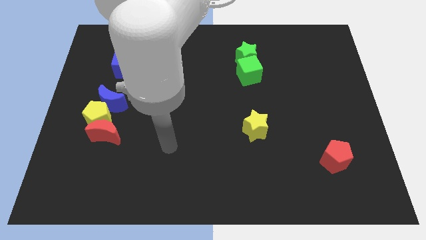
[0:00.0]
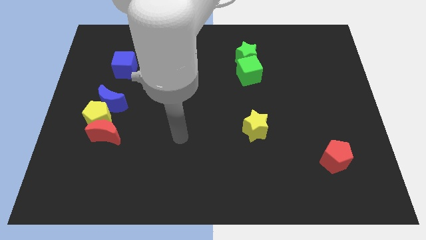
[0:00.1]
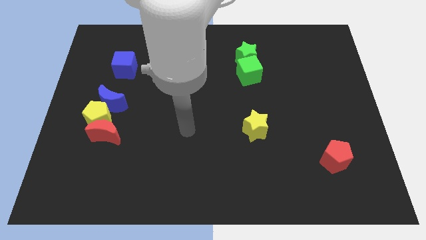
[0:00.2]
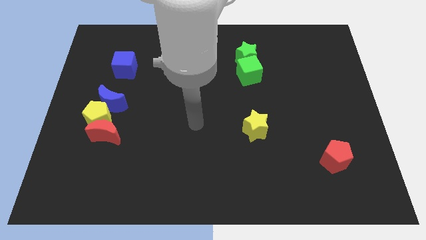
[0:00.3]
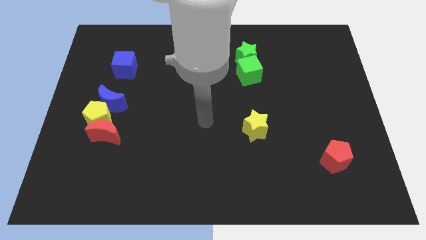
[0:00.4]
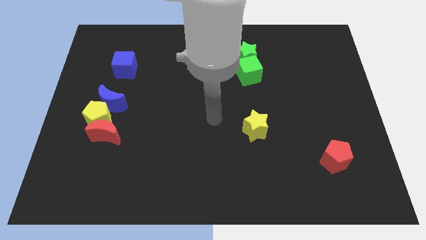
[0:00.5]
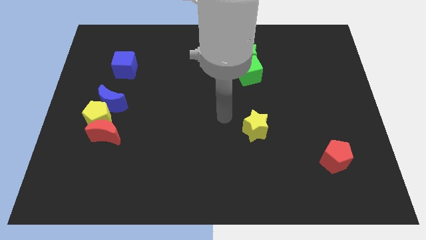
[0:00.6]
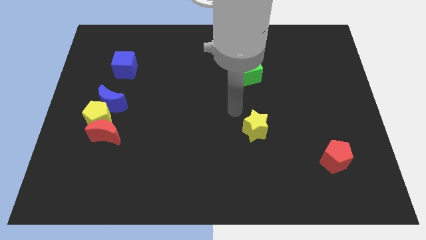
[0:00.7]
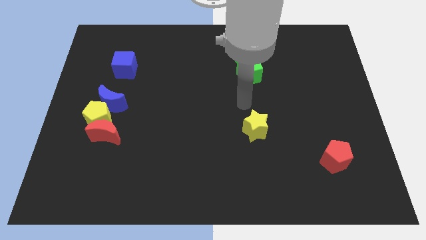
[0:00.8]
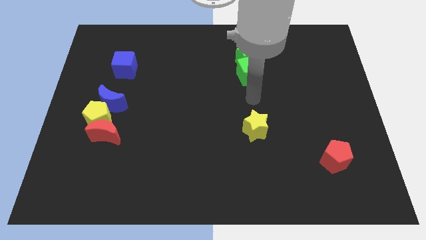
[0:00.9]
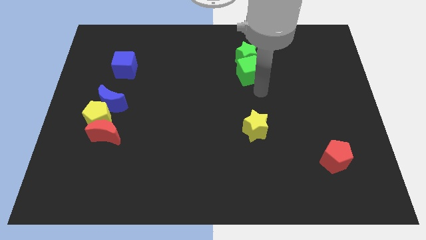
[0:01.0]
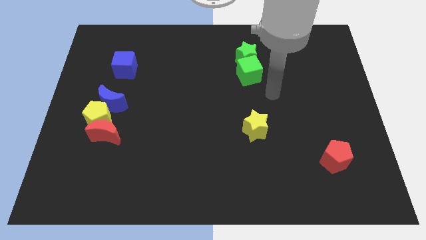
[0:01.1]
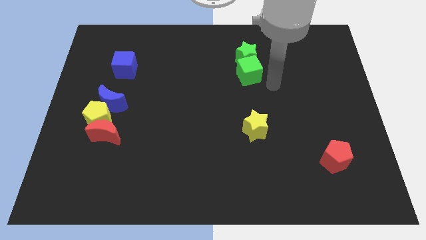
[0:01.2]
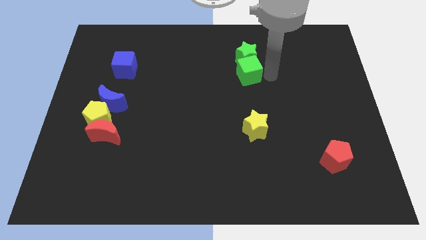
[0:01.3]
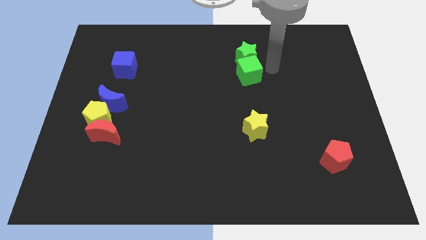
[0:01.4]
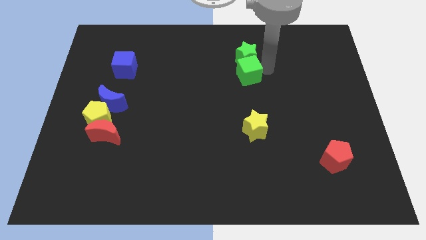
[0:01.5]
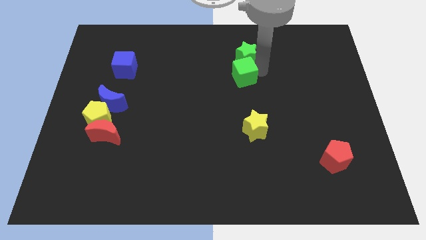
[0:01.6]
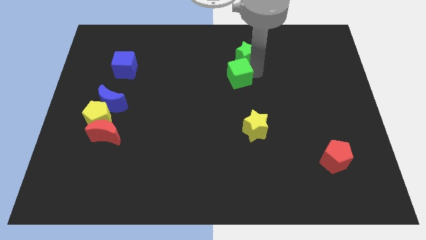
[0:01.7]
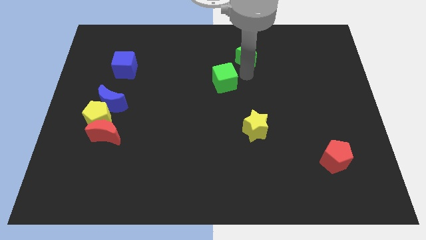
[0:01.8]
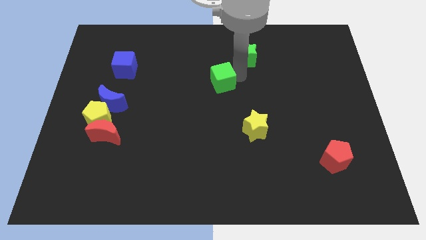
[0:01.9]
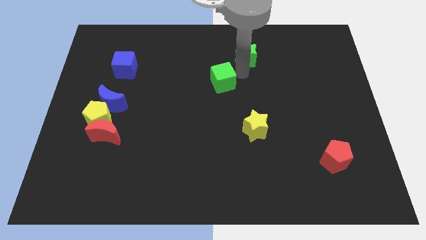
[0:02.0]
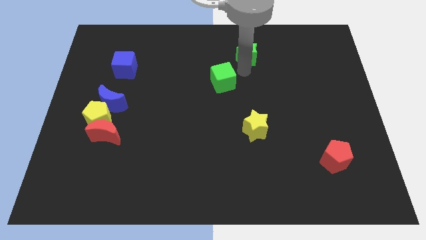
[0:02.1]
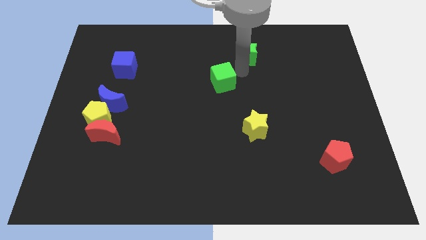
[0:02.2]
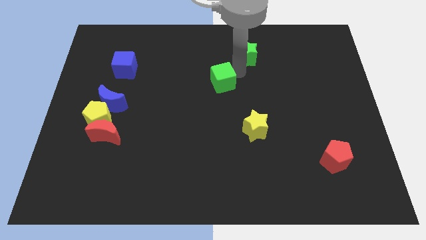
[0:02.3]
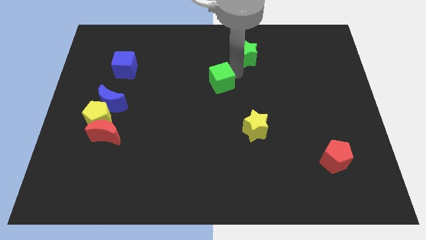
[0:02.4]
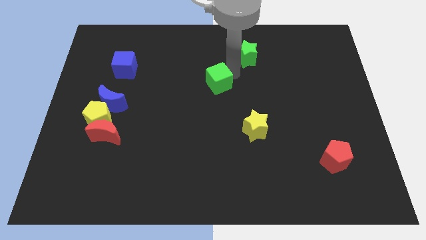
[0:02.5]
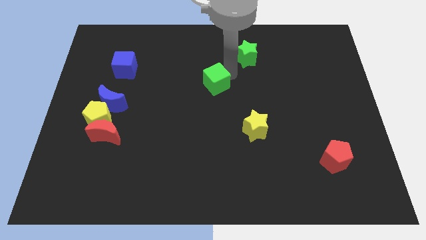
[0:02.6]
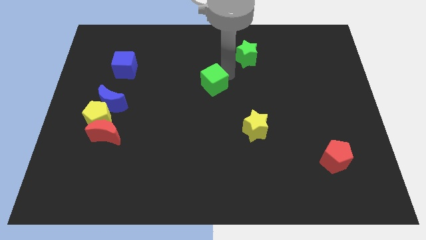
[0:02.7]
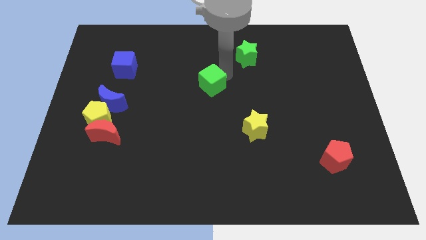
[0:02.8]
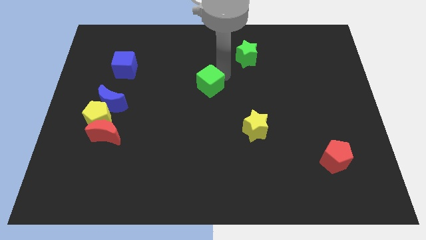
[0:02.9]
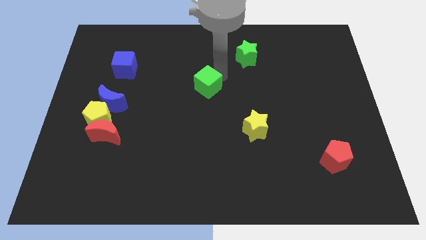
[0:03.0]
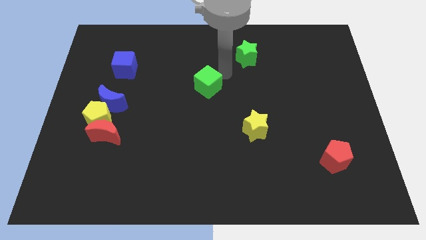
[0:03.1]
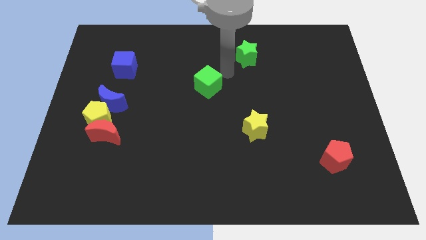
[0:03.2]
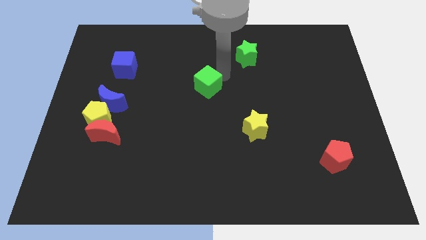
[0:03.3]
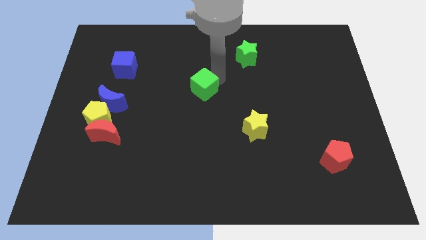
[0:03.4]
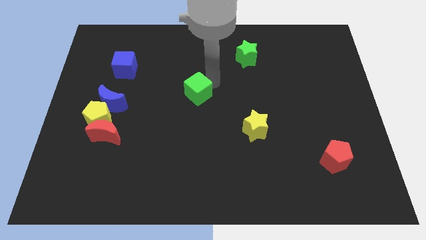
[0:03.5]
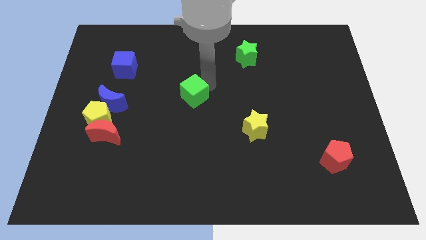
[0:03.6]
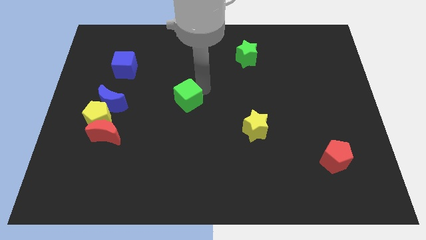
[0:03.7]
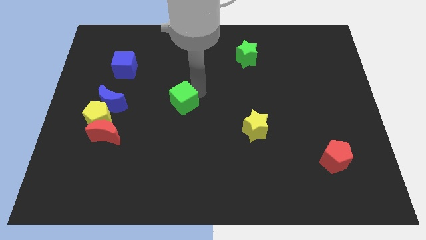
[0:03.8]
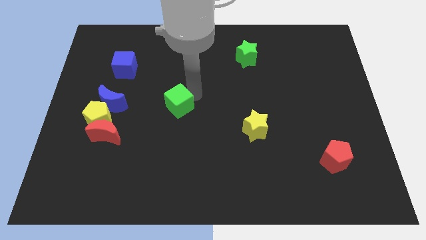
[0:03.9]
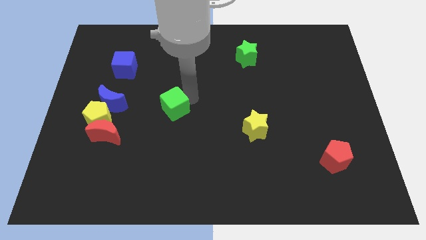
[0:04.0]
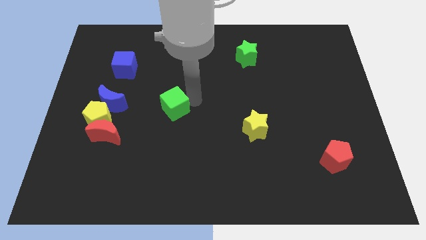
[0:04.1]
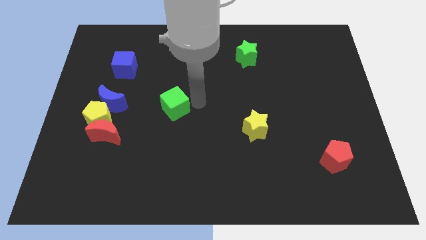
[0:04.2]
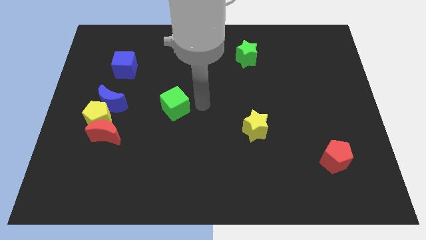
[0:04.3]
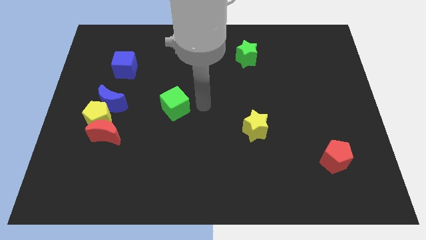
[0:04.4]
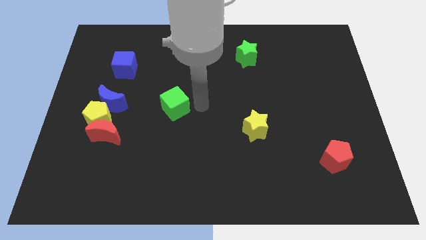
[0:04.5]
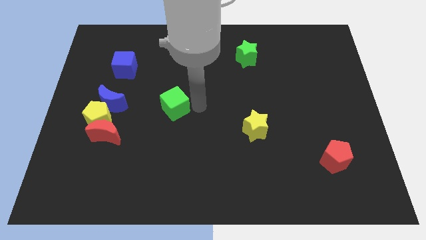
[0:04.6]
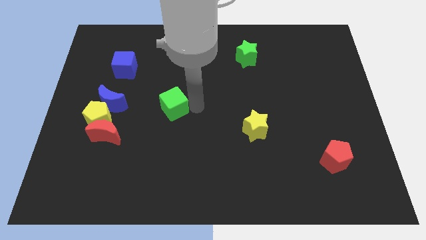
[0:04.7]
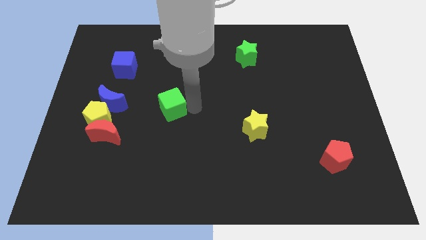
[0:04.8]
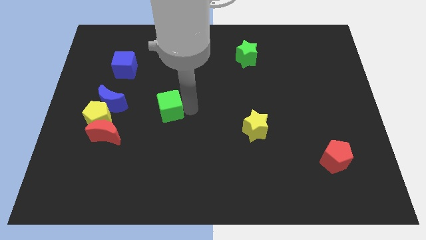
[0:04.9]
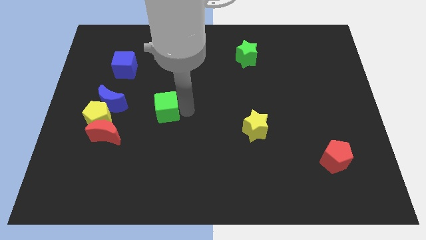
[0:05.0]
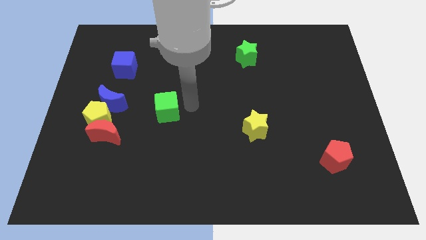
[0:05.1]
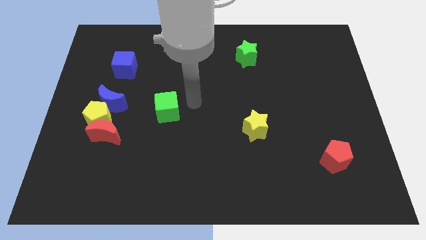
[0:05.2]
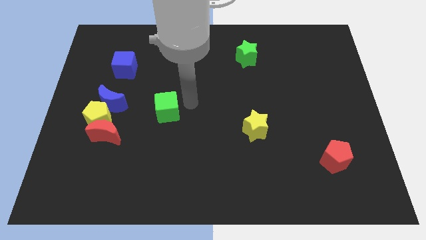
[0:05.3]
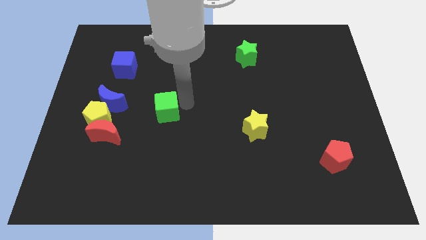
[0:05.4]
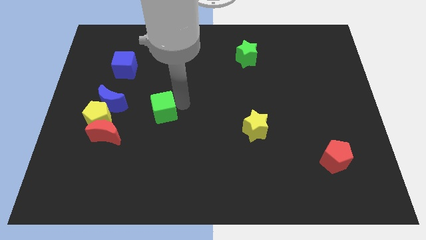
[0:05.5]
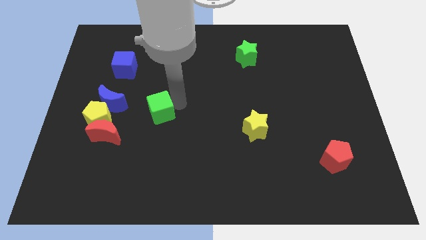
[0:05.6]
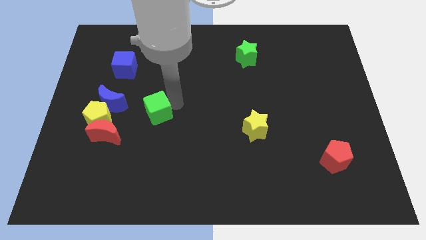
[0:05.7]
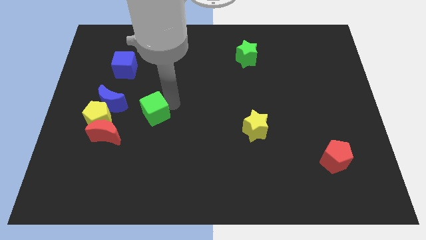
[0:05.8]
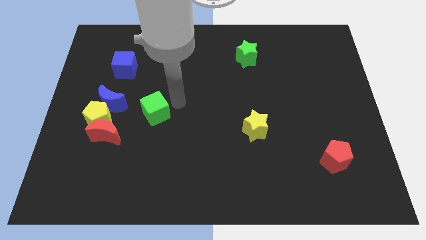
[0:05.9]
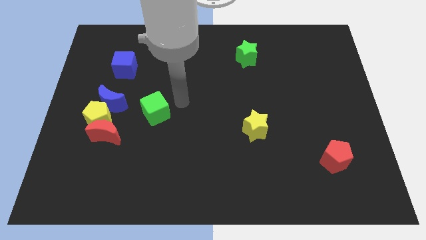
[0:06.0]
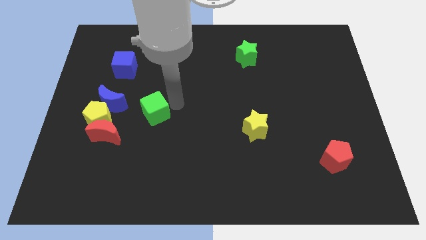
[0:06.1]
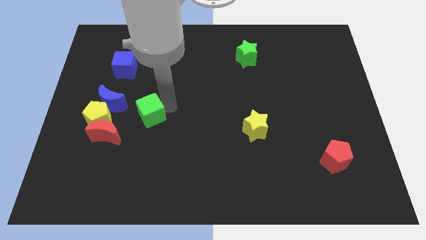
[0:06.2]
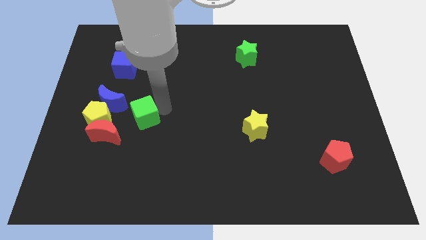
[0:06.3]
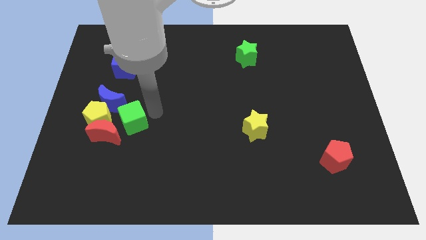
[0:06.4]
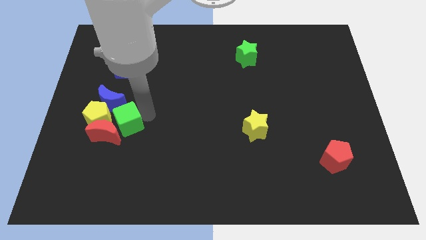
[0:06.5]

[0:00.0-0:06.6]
move the green cube to the red moon

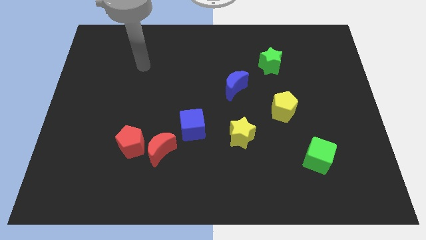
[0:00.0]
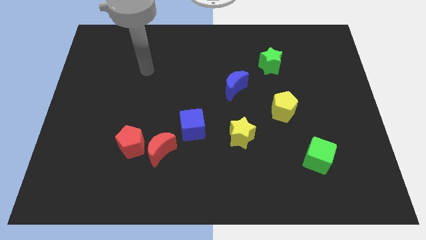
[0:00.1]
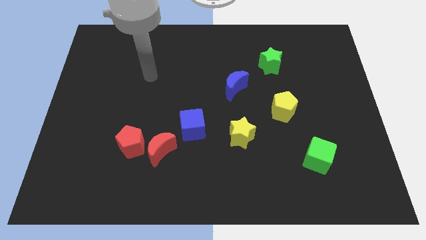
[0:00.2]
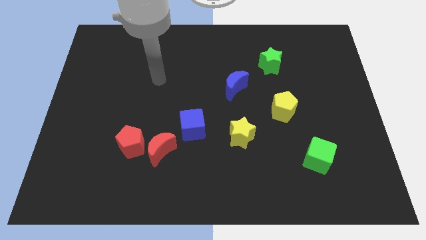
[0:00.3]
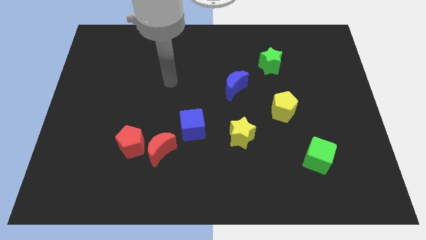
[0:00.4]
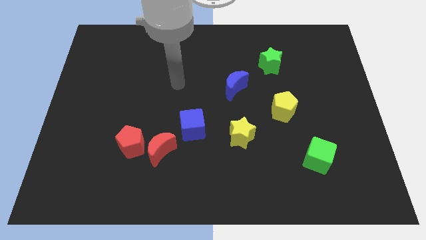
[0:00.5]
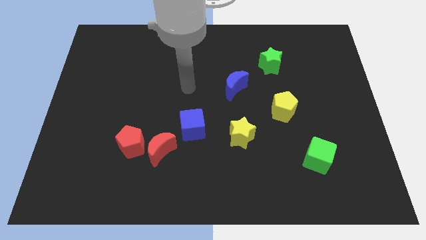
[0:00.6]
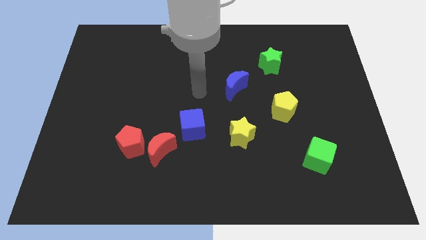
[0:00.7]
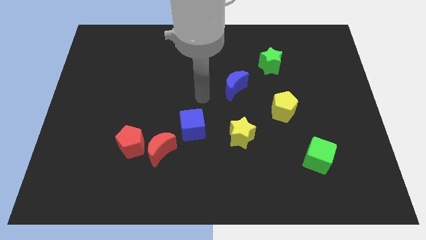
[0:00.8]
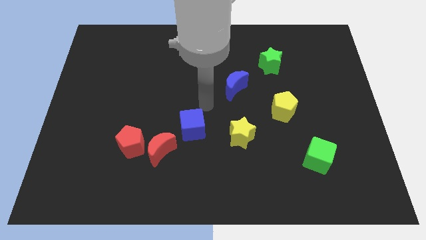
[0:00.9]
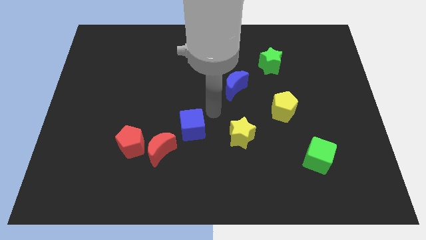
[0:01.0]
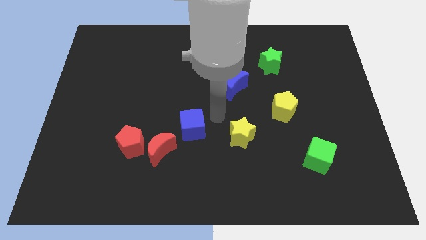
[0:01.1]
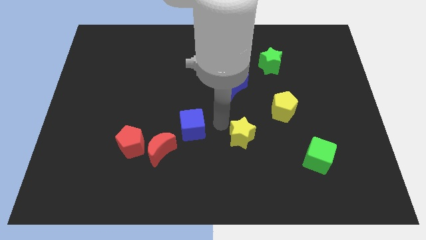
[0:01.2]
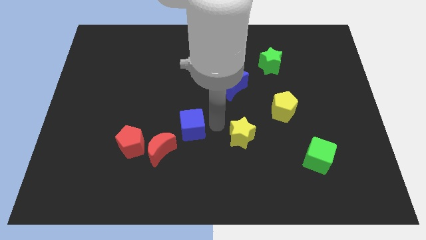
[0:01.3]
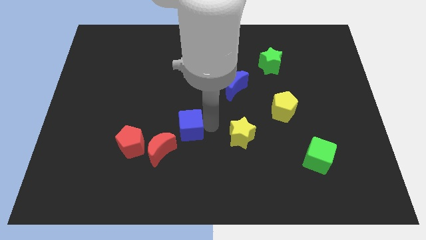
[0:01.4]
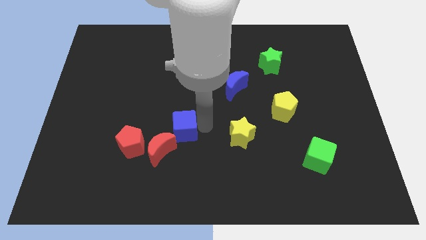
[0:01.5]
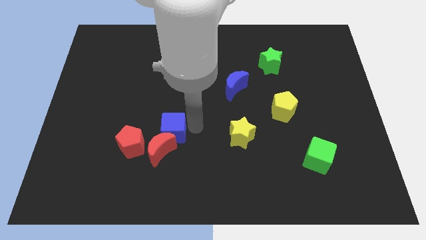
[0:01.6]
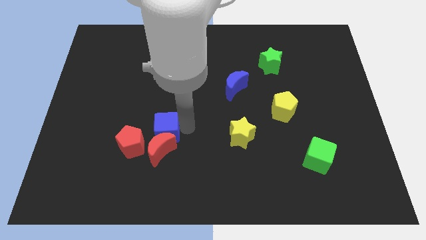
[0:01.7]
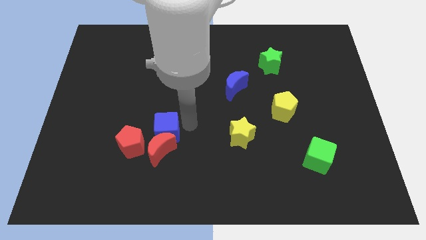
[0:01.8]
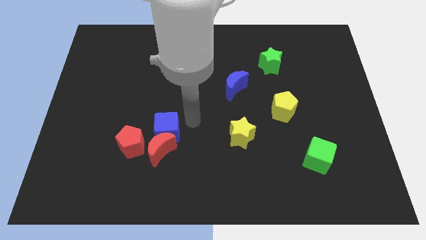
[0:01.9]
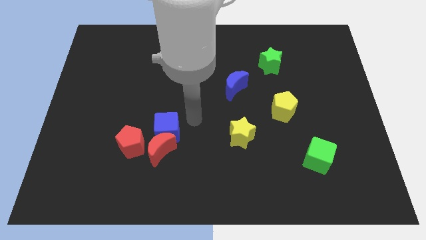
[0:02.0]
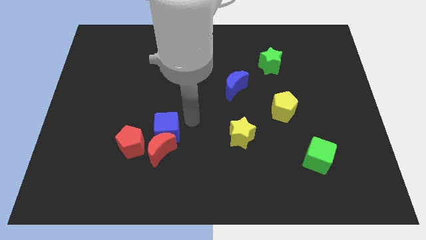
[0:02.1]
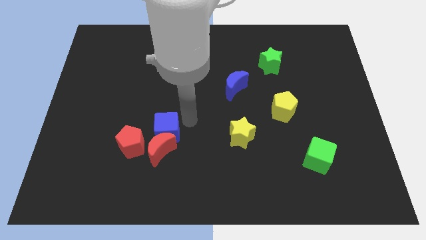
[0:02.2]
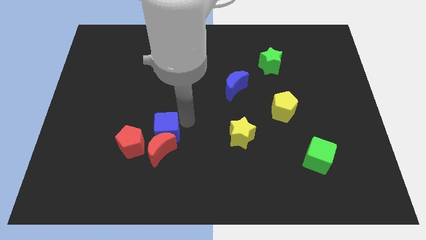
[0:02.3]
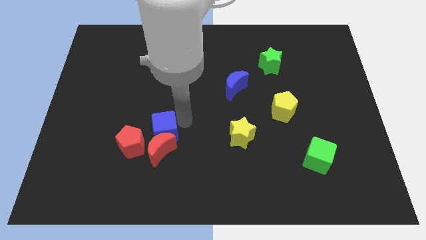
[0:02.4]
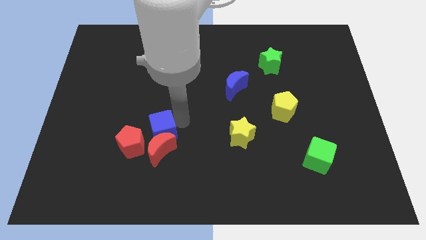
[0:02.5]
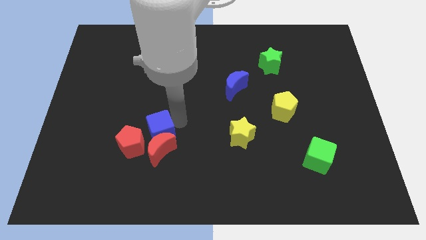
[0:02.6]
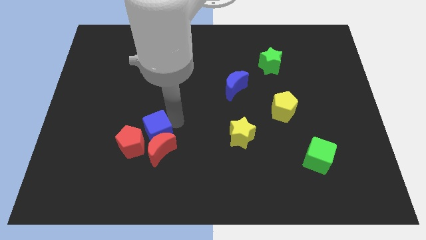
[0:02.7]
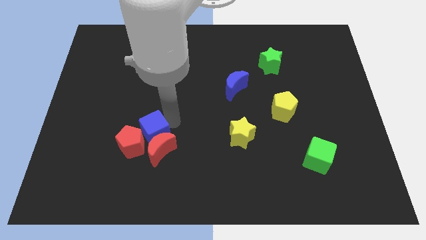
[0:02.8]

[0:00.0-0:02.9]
push the blue cube towards the red pentagon
